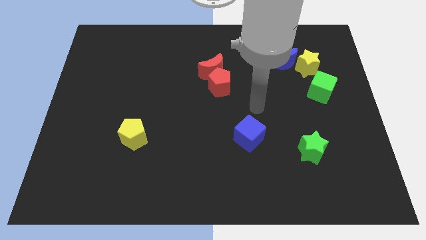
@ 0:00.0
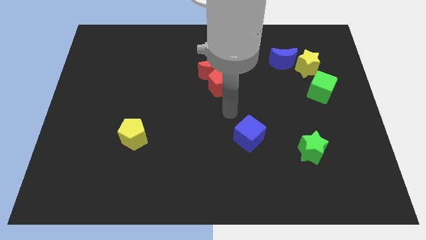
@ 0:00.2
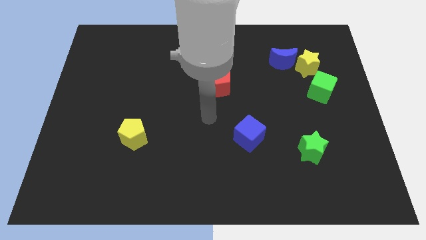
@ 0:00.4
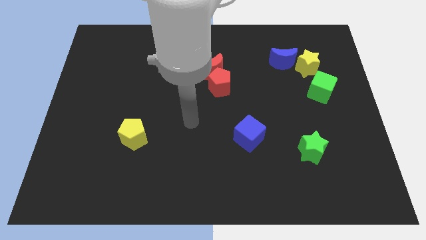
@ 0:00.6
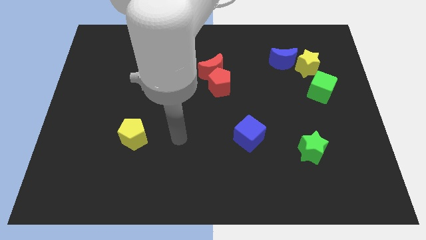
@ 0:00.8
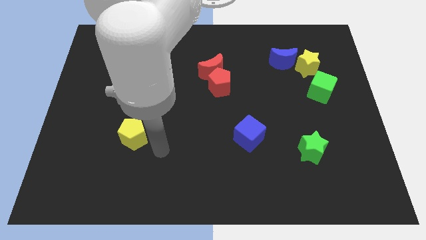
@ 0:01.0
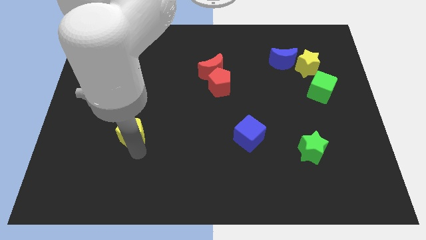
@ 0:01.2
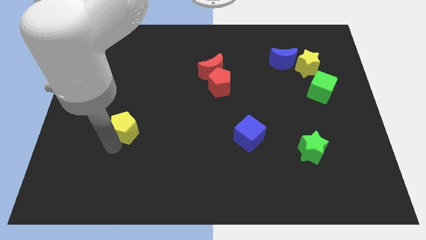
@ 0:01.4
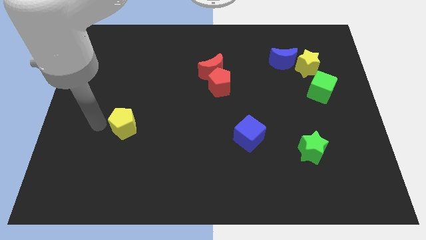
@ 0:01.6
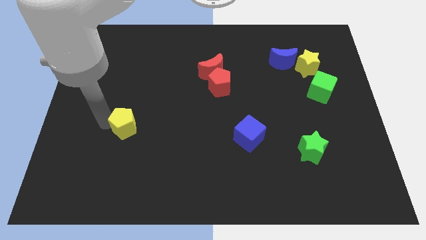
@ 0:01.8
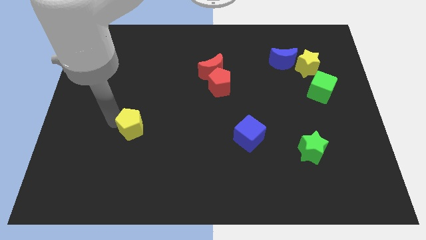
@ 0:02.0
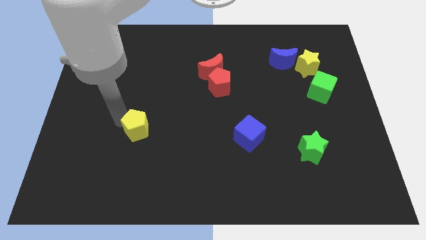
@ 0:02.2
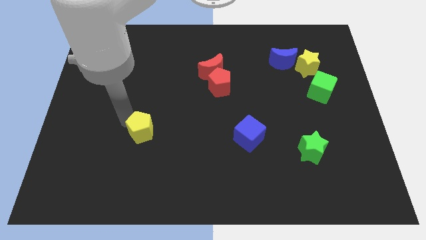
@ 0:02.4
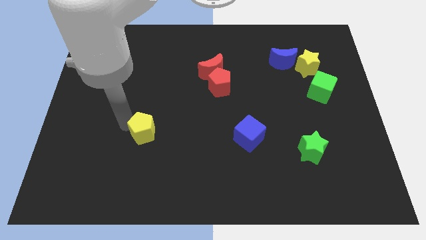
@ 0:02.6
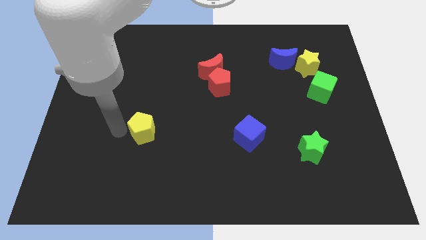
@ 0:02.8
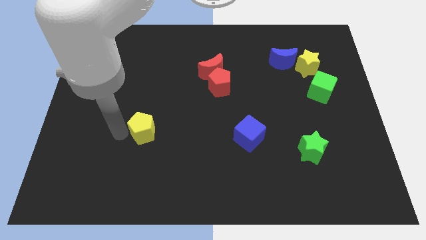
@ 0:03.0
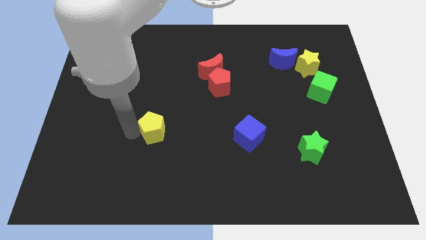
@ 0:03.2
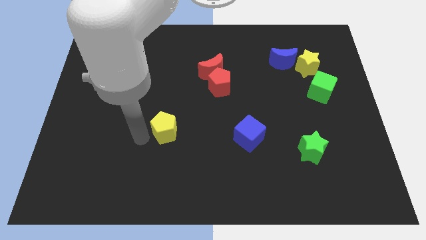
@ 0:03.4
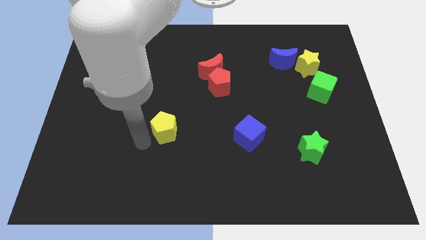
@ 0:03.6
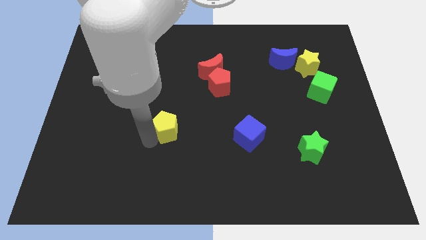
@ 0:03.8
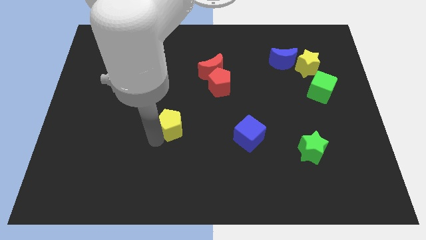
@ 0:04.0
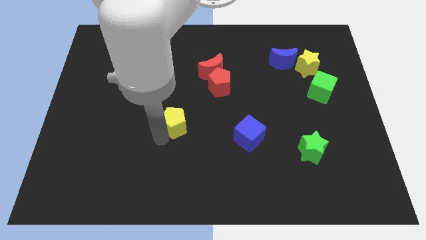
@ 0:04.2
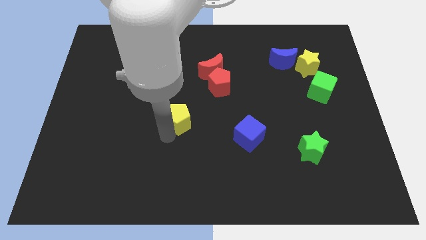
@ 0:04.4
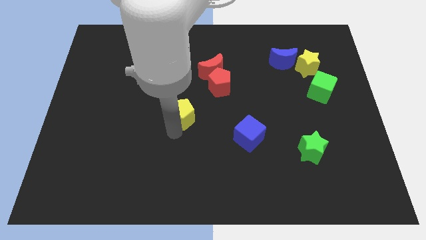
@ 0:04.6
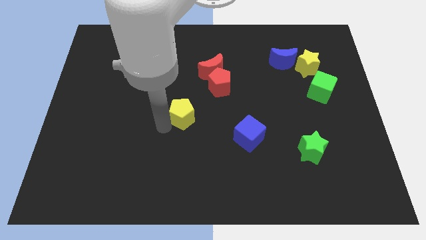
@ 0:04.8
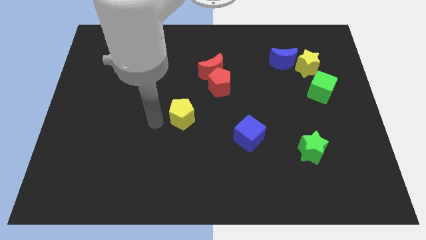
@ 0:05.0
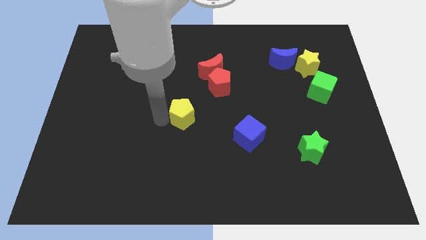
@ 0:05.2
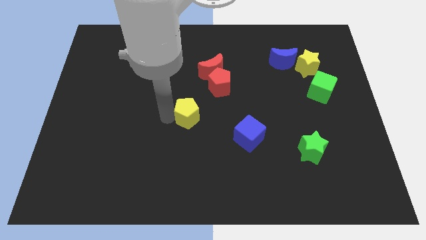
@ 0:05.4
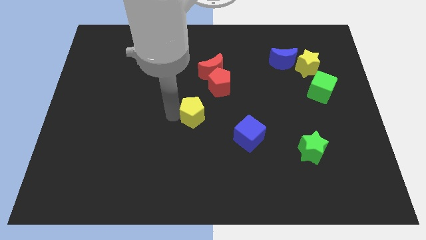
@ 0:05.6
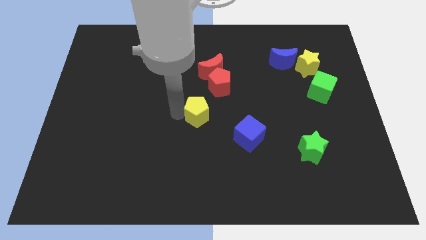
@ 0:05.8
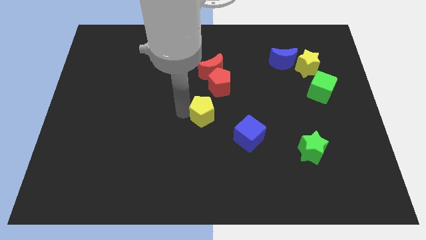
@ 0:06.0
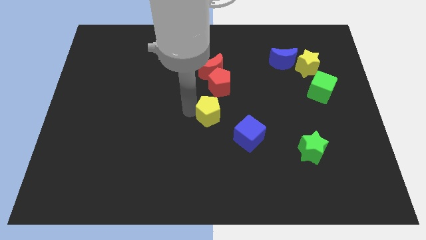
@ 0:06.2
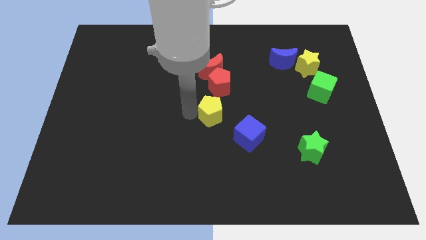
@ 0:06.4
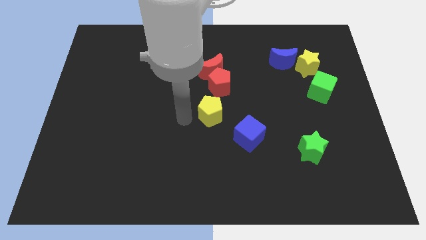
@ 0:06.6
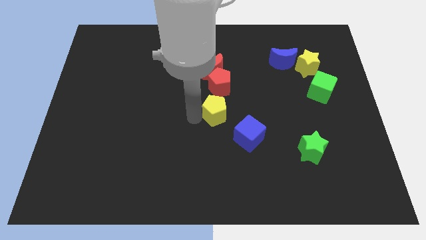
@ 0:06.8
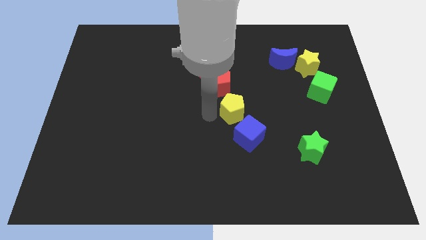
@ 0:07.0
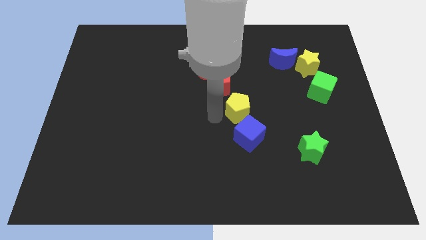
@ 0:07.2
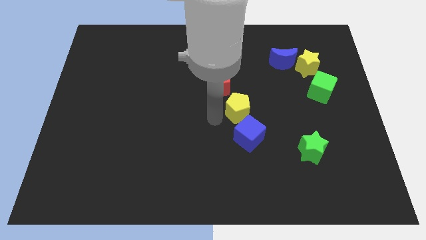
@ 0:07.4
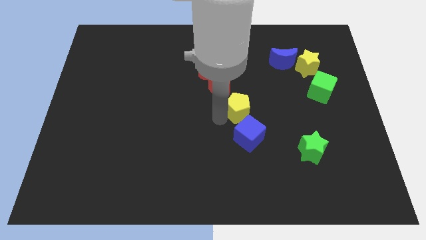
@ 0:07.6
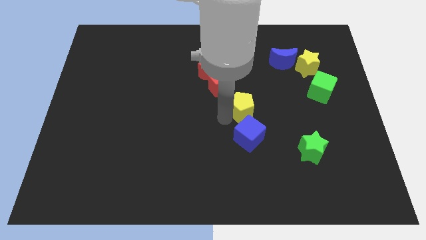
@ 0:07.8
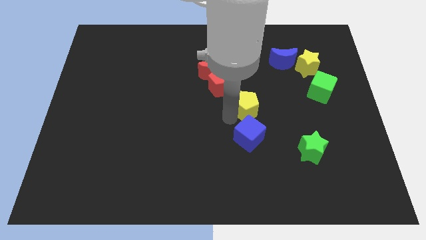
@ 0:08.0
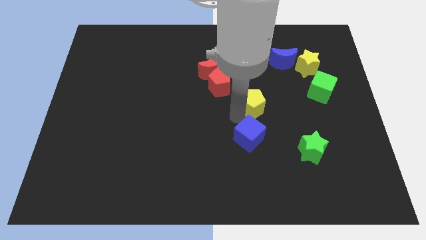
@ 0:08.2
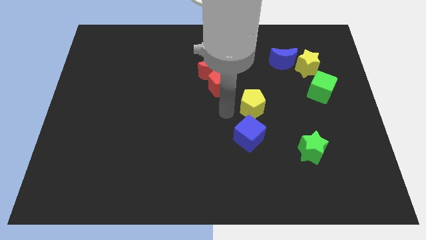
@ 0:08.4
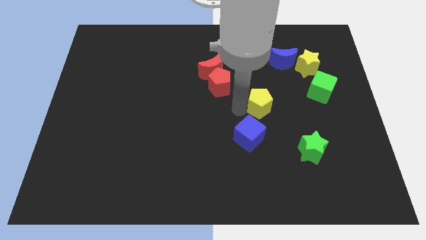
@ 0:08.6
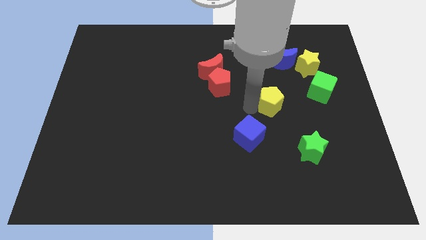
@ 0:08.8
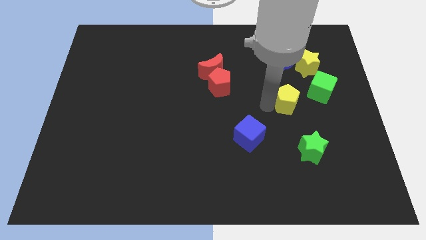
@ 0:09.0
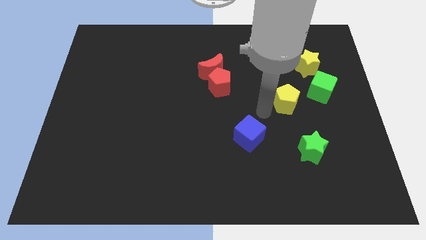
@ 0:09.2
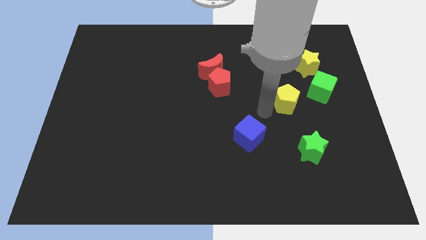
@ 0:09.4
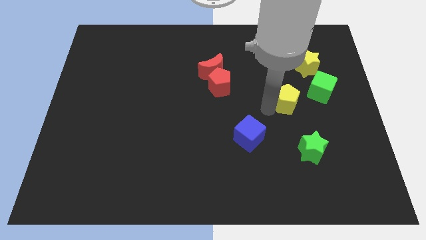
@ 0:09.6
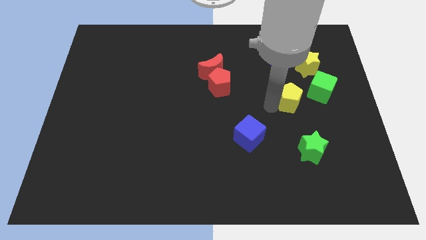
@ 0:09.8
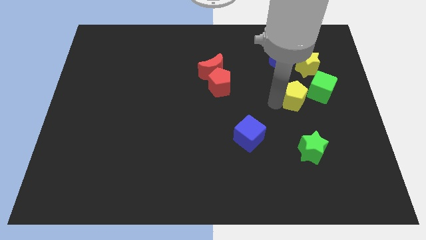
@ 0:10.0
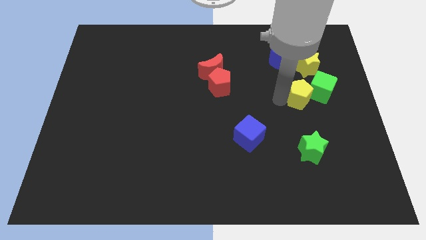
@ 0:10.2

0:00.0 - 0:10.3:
move the yellow pentagon next to the green cube

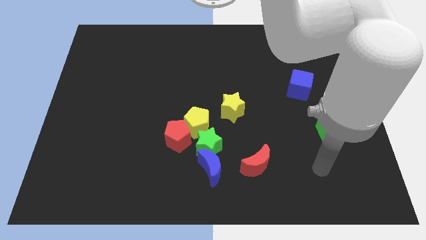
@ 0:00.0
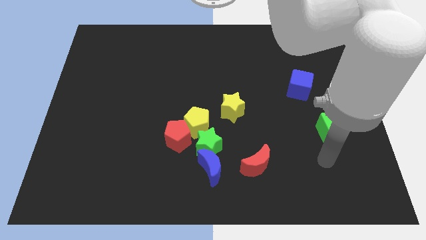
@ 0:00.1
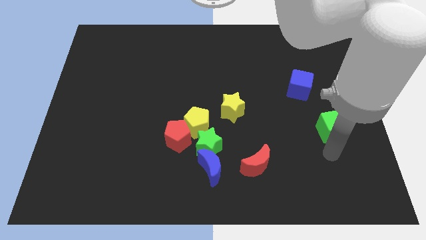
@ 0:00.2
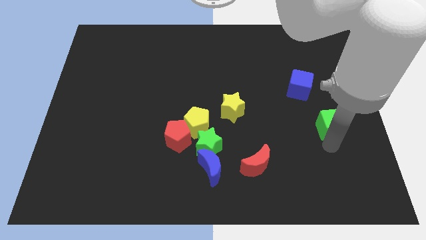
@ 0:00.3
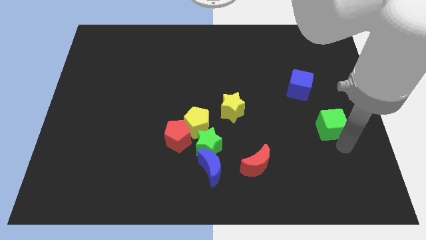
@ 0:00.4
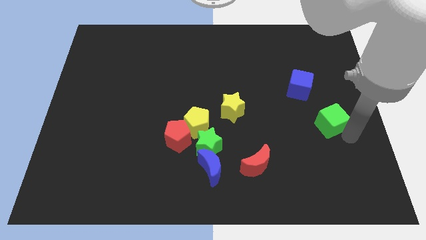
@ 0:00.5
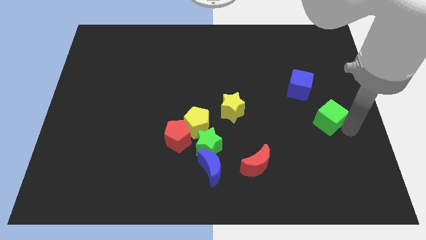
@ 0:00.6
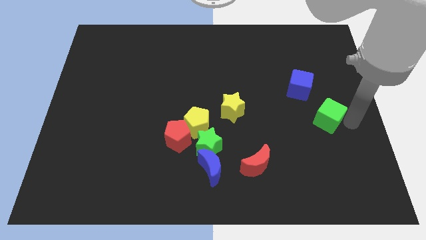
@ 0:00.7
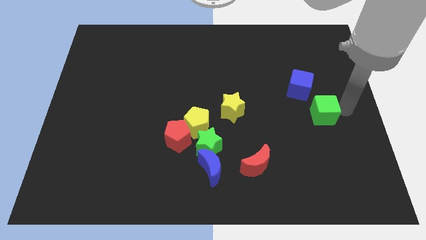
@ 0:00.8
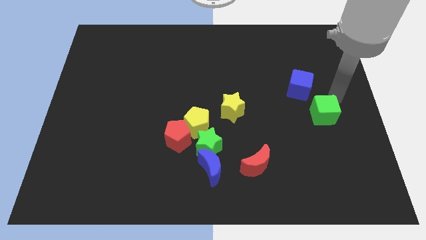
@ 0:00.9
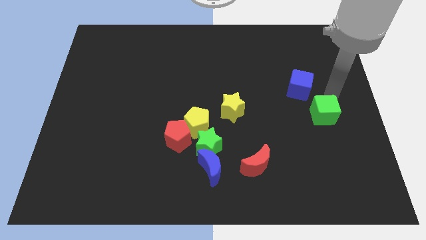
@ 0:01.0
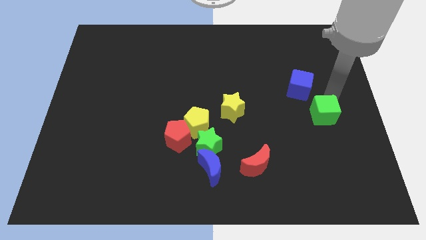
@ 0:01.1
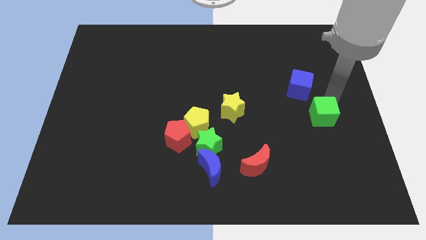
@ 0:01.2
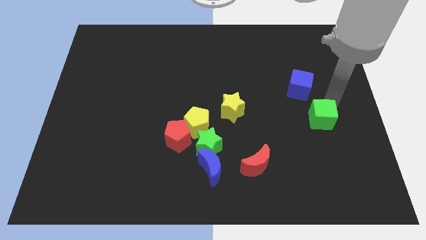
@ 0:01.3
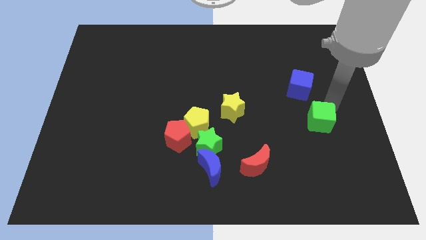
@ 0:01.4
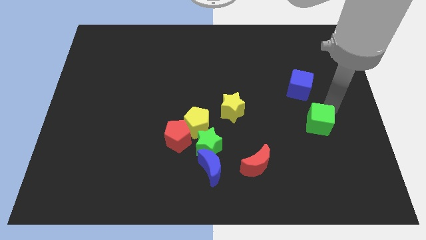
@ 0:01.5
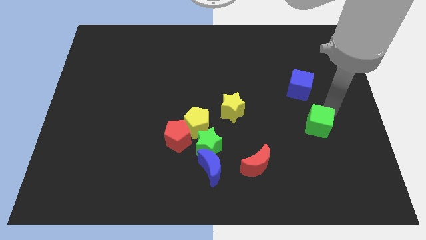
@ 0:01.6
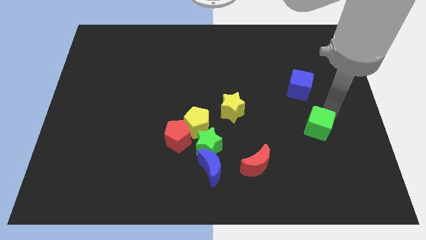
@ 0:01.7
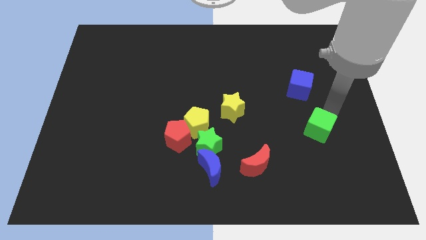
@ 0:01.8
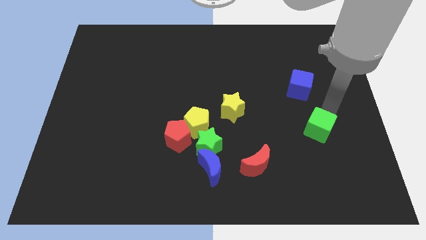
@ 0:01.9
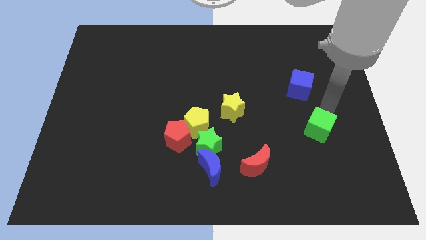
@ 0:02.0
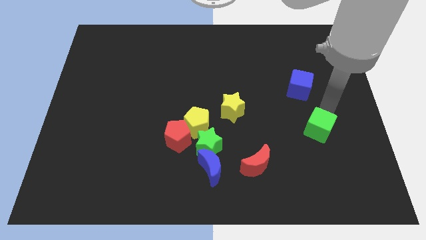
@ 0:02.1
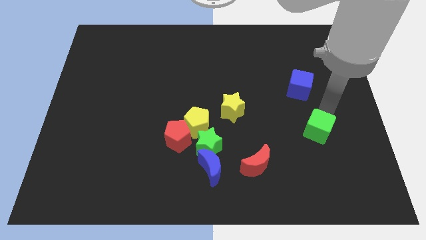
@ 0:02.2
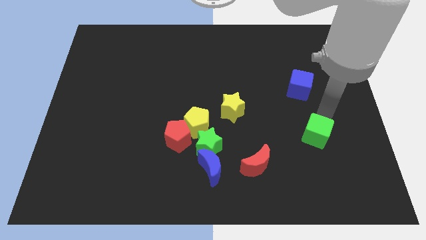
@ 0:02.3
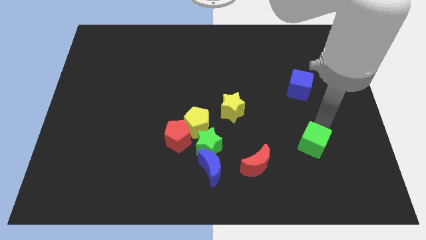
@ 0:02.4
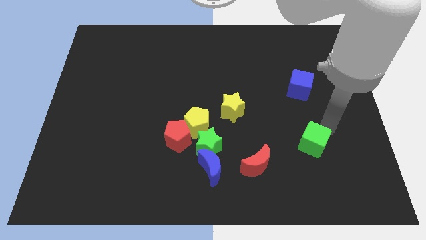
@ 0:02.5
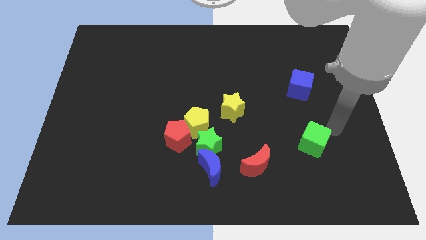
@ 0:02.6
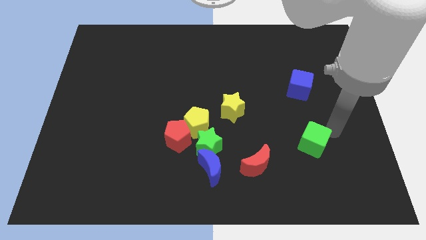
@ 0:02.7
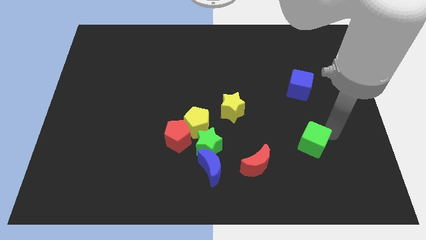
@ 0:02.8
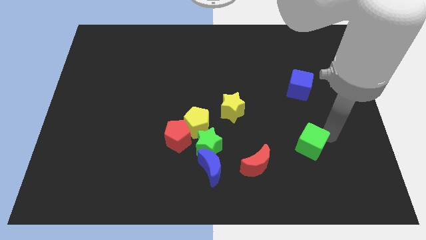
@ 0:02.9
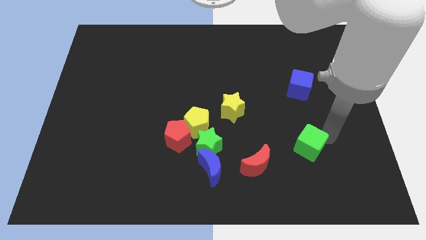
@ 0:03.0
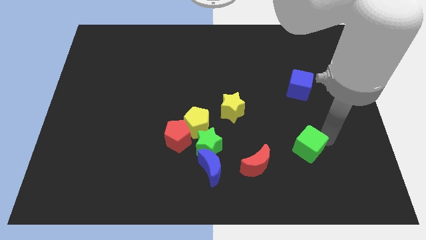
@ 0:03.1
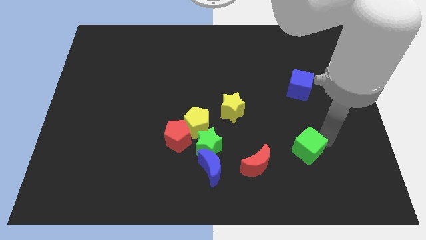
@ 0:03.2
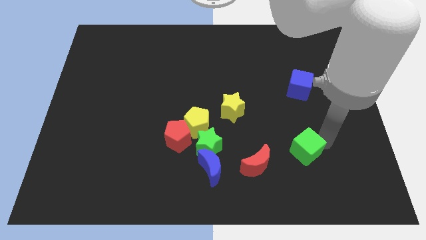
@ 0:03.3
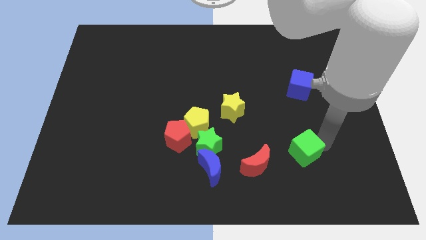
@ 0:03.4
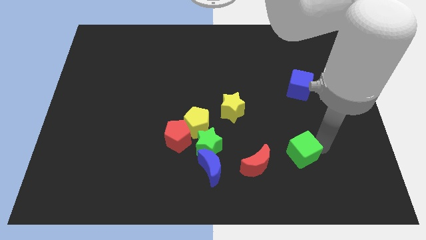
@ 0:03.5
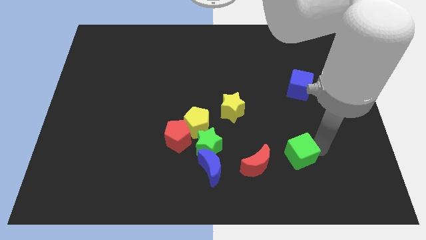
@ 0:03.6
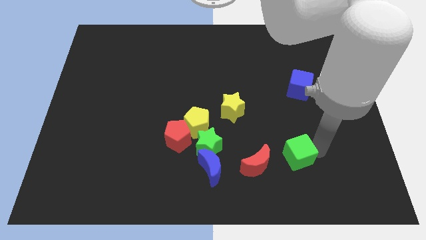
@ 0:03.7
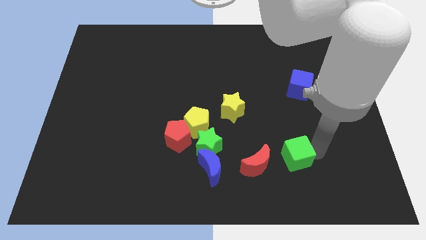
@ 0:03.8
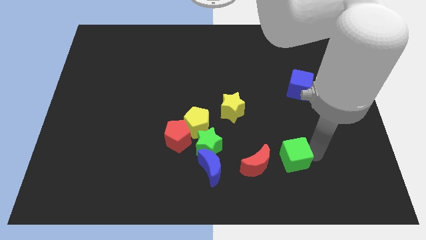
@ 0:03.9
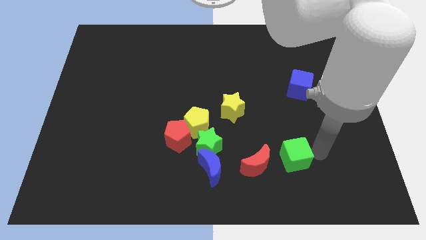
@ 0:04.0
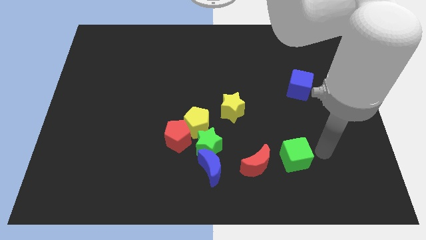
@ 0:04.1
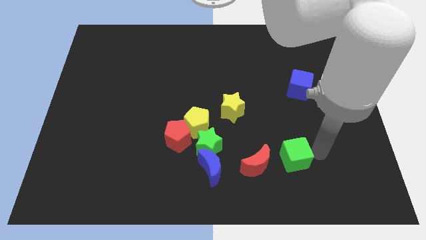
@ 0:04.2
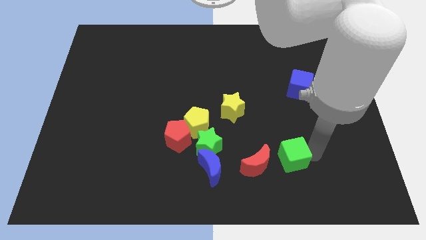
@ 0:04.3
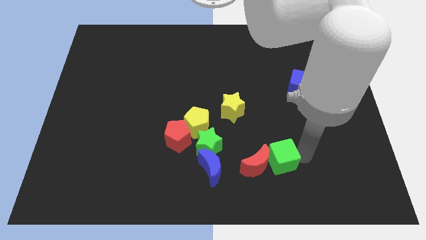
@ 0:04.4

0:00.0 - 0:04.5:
move the green cube to the red moon
